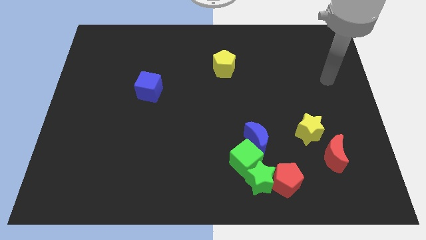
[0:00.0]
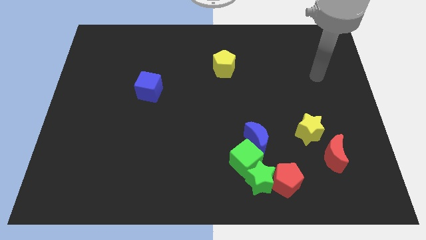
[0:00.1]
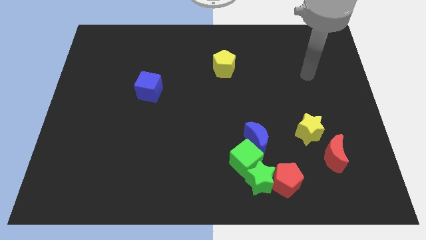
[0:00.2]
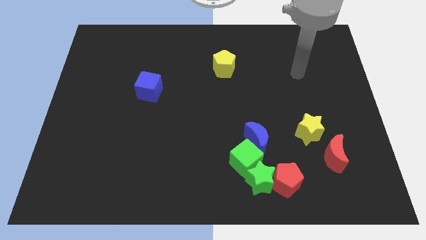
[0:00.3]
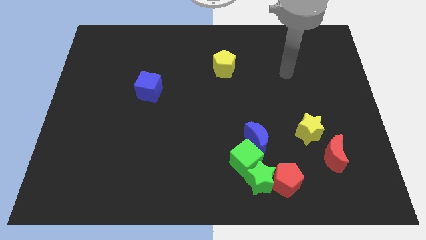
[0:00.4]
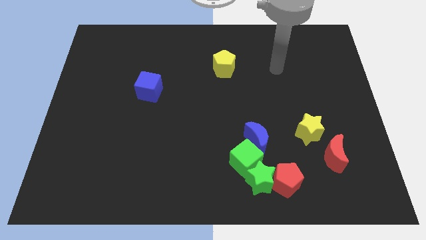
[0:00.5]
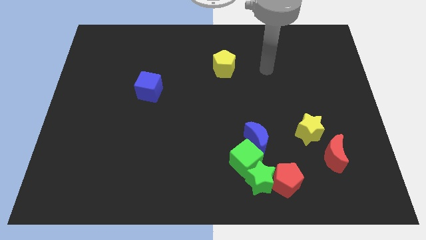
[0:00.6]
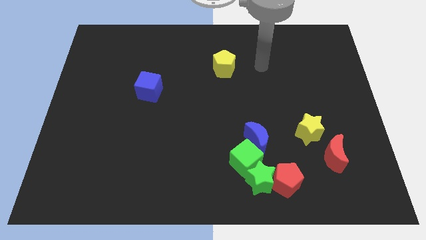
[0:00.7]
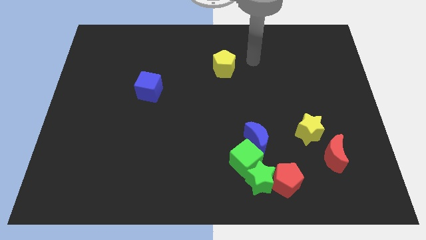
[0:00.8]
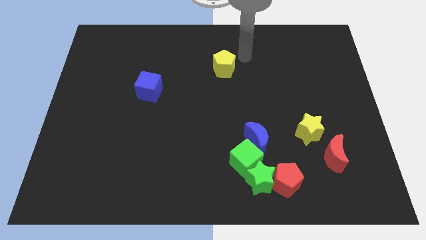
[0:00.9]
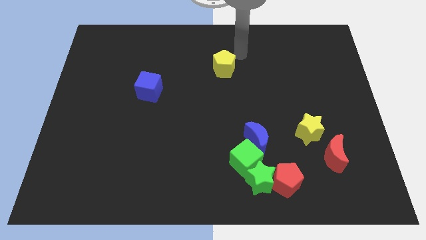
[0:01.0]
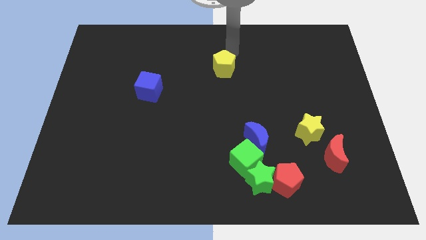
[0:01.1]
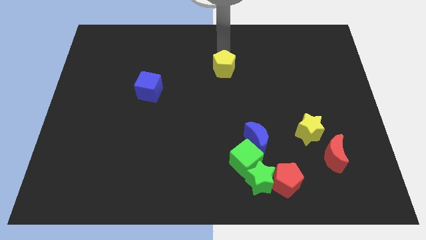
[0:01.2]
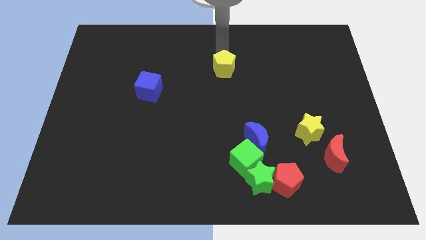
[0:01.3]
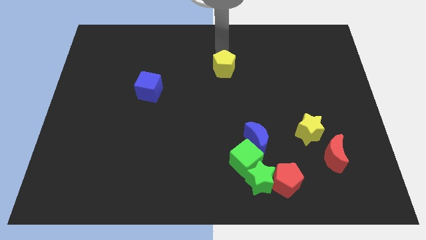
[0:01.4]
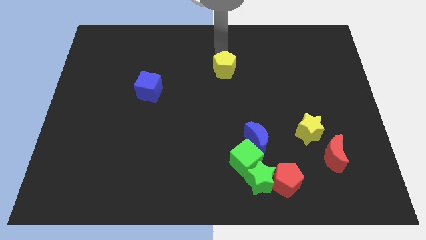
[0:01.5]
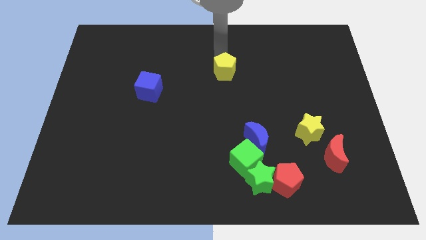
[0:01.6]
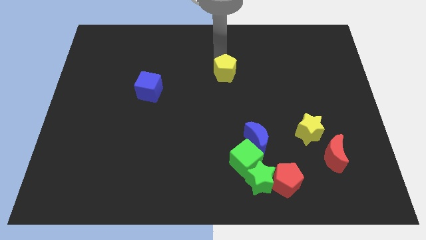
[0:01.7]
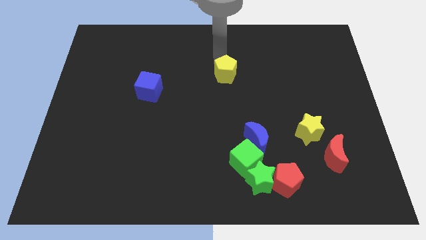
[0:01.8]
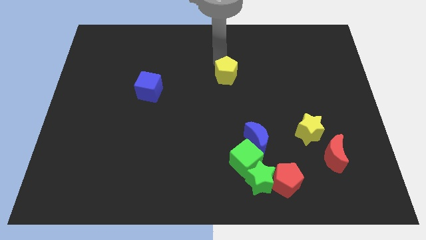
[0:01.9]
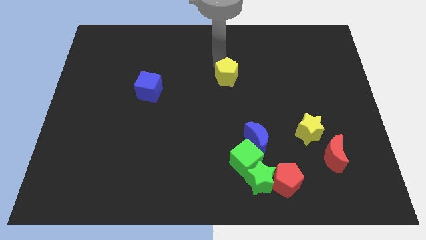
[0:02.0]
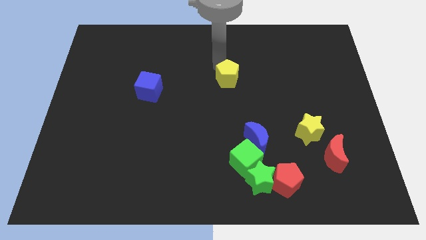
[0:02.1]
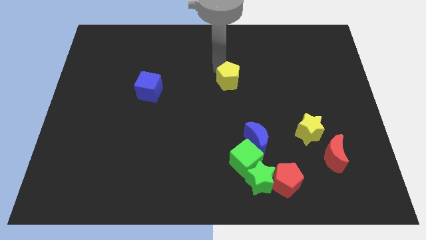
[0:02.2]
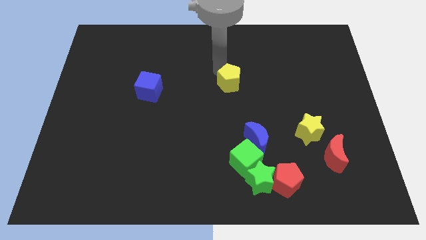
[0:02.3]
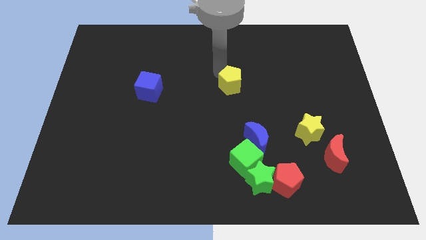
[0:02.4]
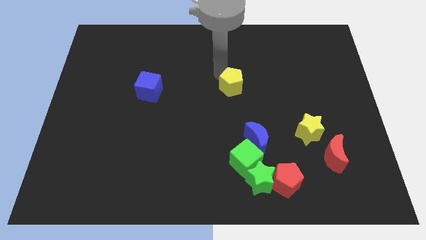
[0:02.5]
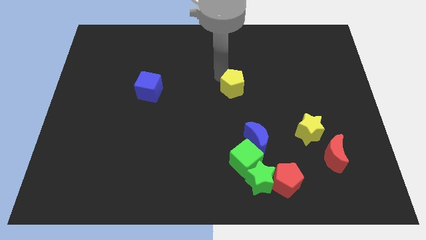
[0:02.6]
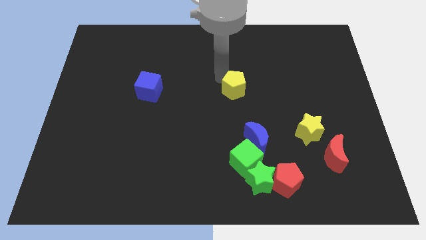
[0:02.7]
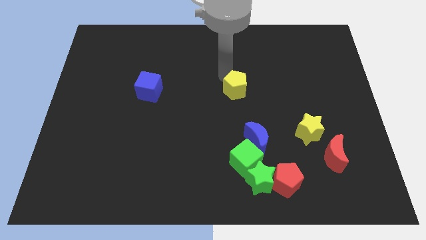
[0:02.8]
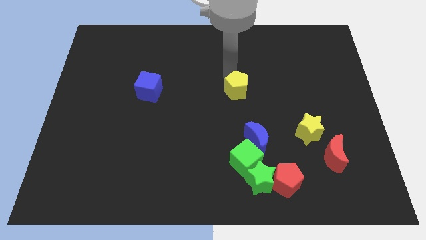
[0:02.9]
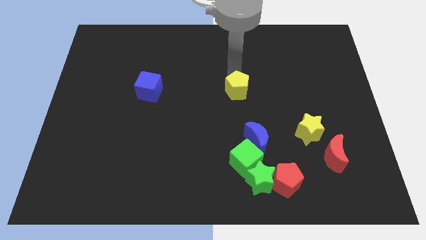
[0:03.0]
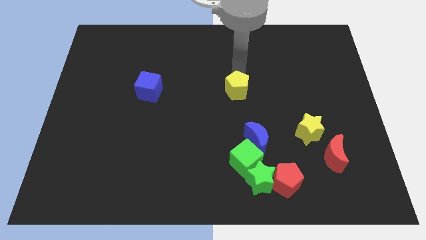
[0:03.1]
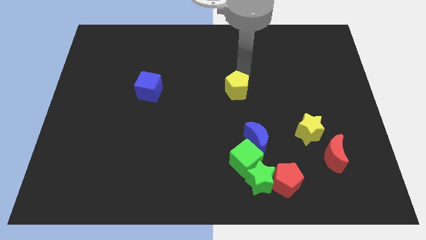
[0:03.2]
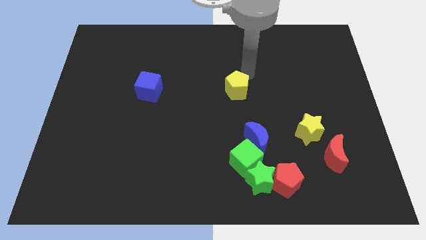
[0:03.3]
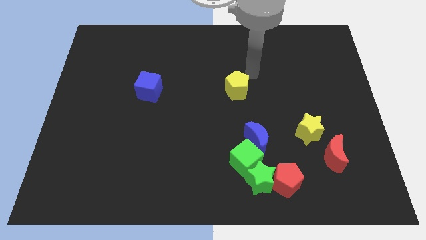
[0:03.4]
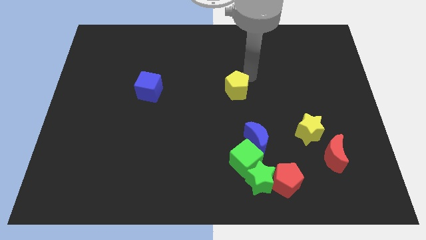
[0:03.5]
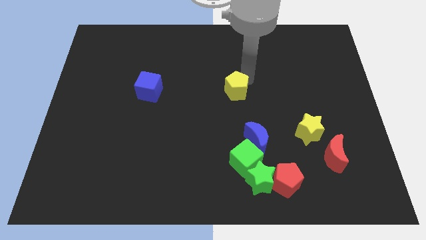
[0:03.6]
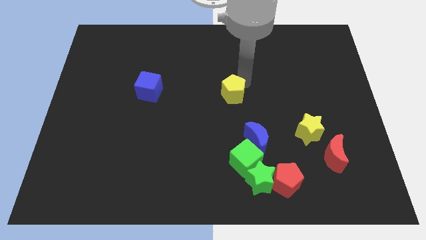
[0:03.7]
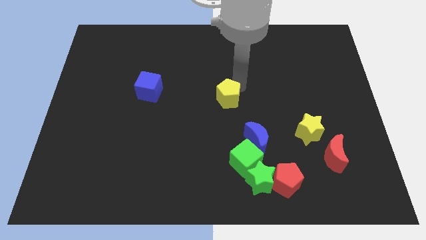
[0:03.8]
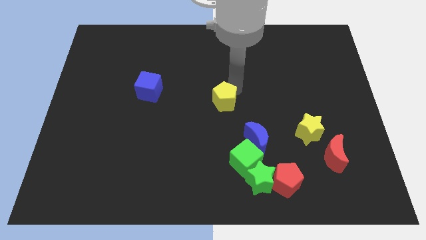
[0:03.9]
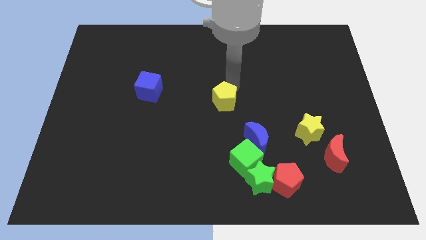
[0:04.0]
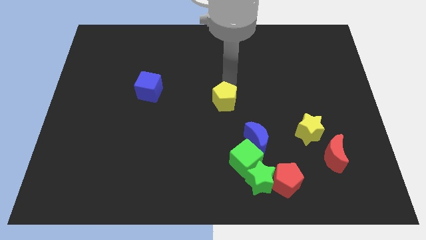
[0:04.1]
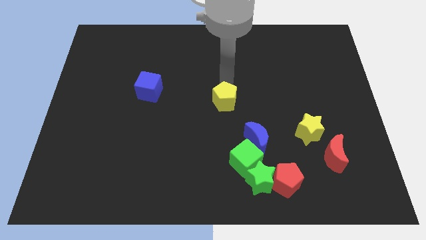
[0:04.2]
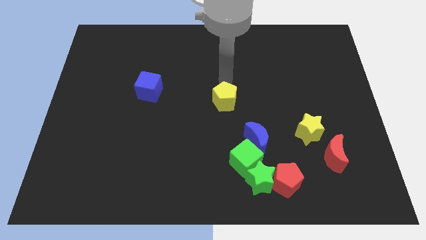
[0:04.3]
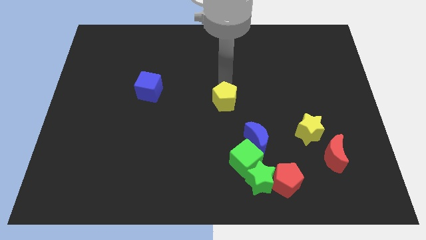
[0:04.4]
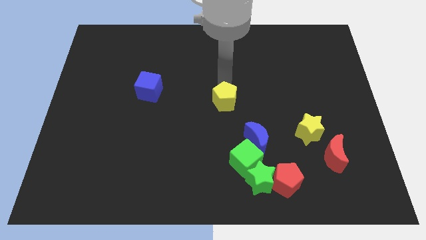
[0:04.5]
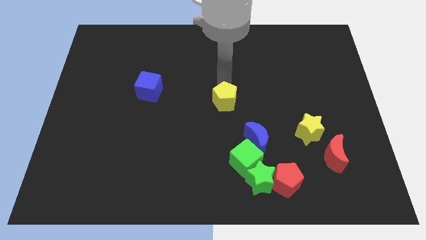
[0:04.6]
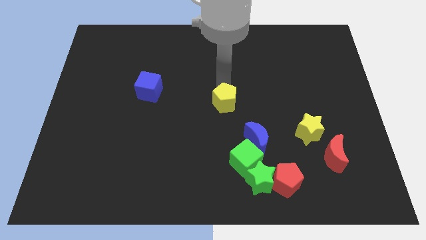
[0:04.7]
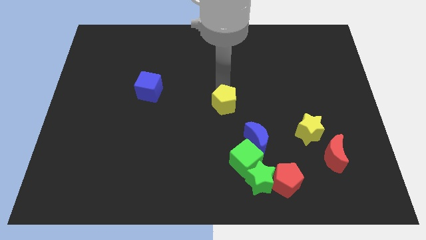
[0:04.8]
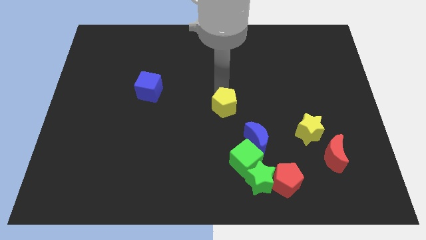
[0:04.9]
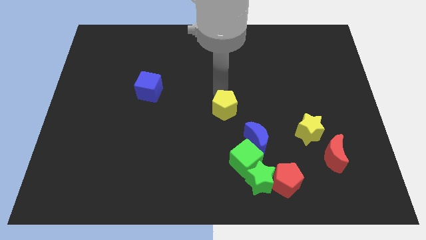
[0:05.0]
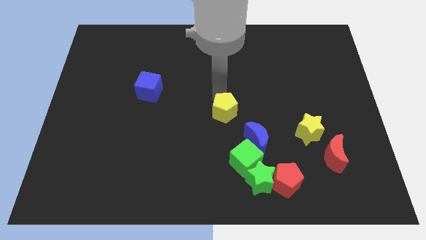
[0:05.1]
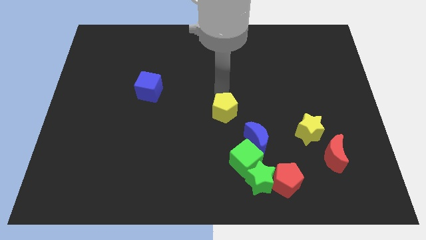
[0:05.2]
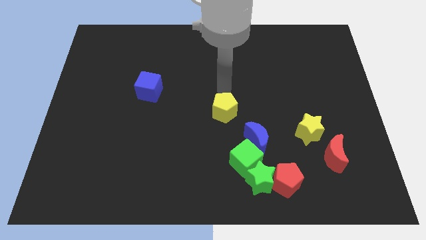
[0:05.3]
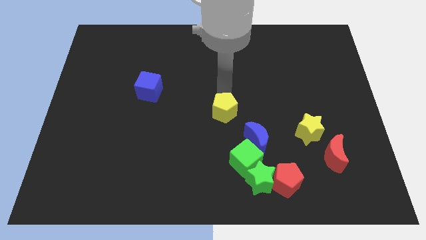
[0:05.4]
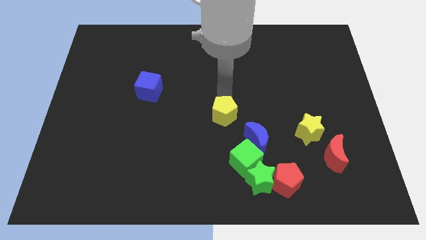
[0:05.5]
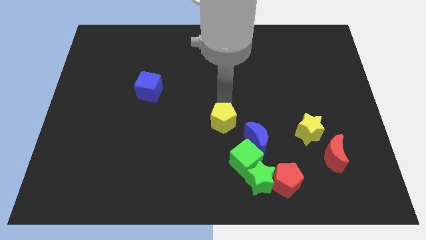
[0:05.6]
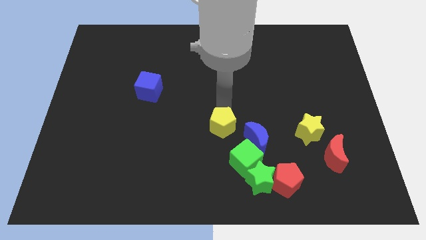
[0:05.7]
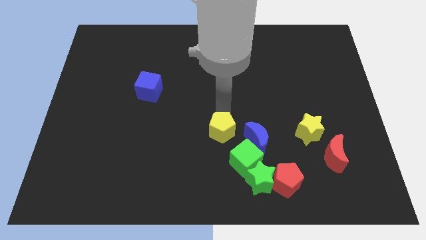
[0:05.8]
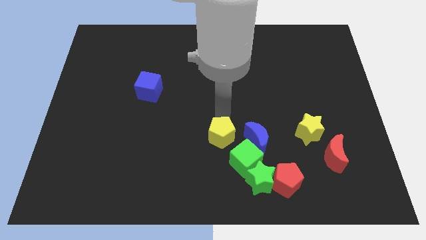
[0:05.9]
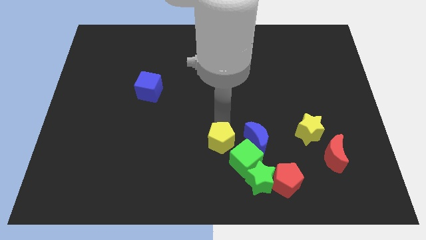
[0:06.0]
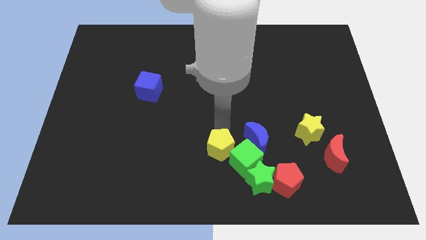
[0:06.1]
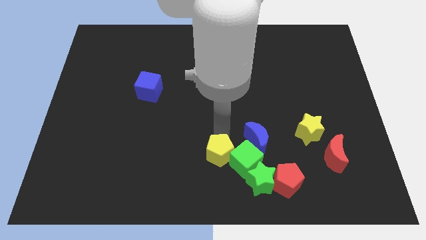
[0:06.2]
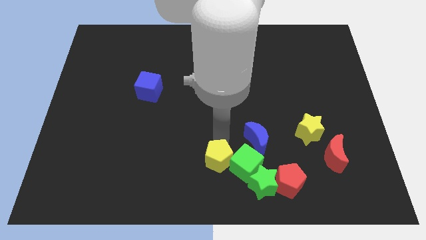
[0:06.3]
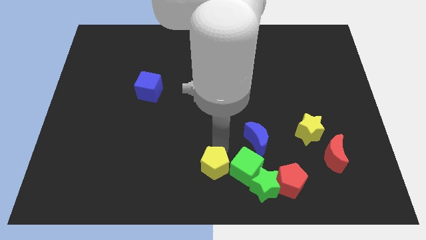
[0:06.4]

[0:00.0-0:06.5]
slide the yellow pentagon to the left of the green star

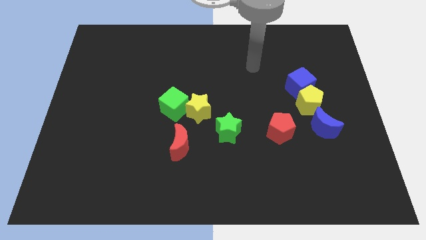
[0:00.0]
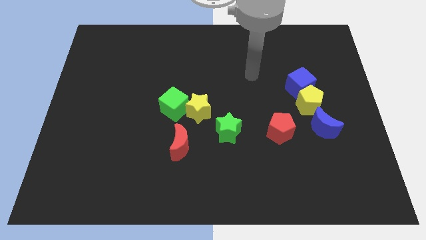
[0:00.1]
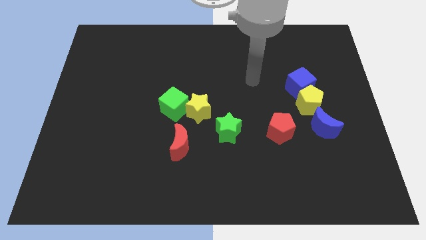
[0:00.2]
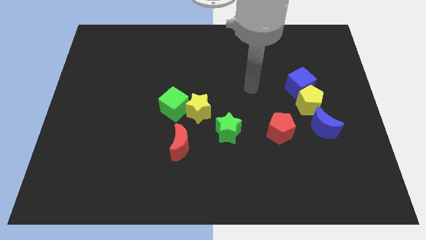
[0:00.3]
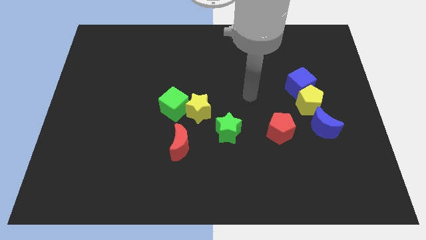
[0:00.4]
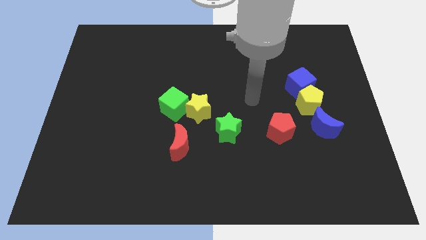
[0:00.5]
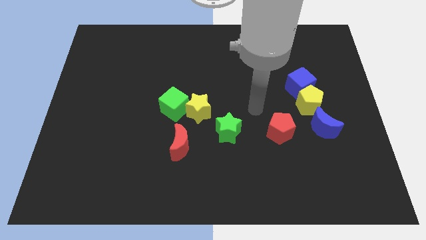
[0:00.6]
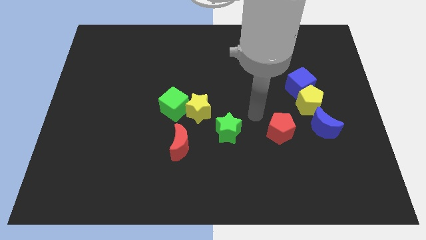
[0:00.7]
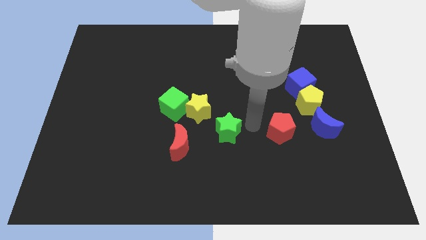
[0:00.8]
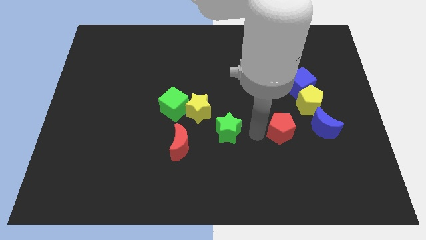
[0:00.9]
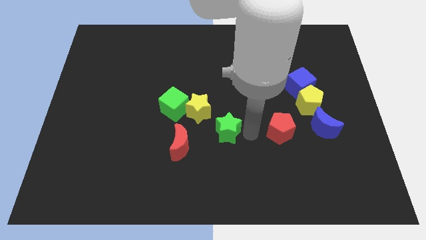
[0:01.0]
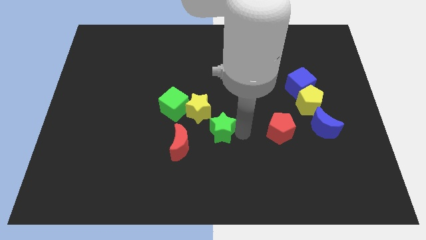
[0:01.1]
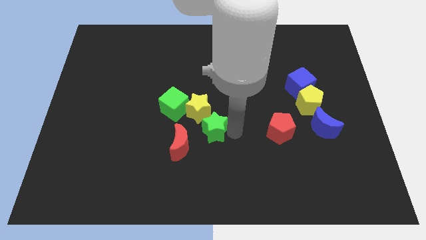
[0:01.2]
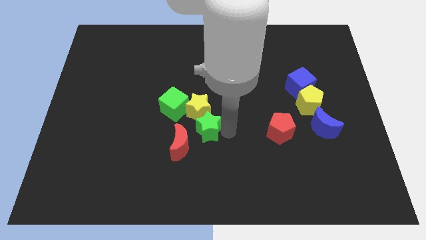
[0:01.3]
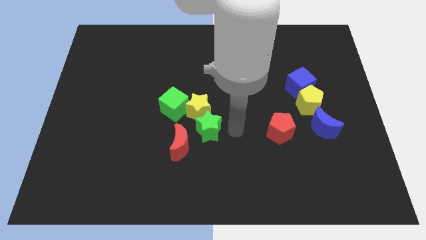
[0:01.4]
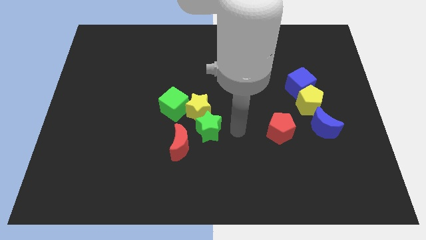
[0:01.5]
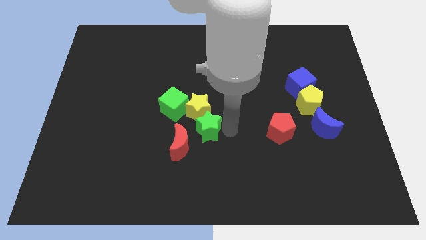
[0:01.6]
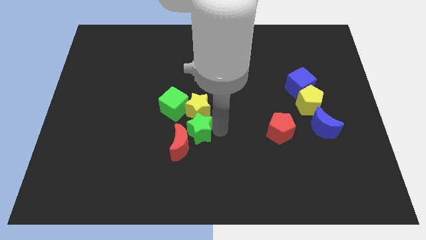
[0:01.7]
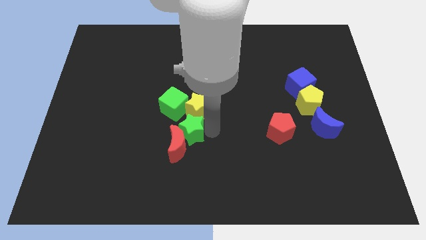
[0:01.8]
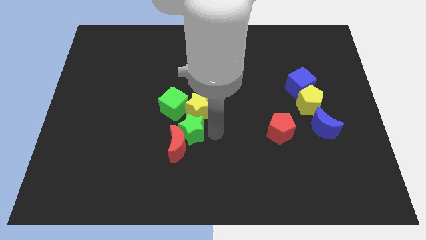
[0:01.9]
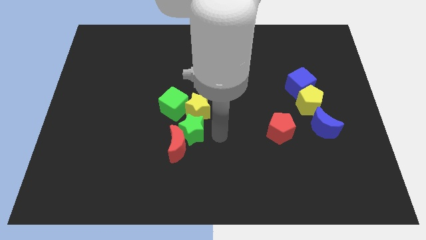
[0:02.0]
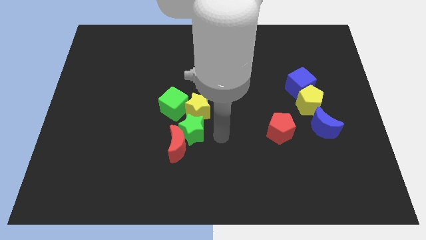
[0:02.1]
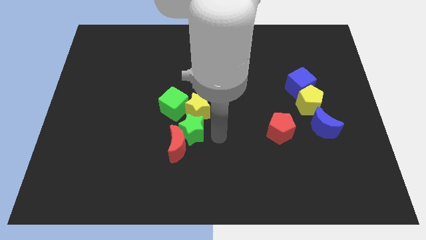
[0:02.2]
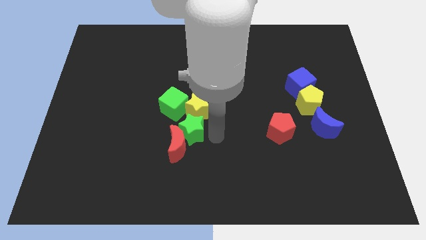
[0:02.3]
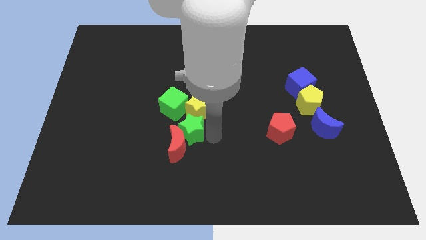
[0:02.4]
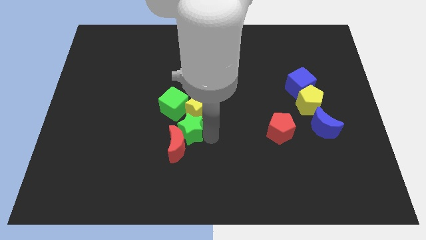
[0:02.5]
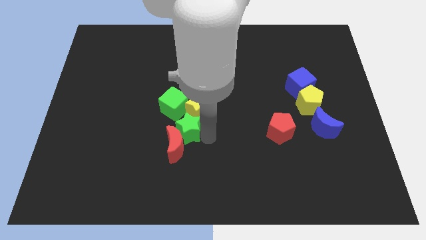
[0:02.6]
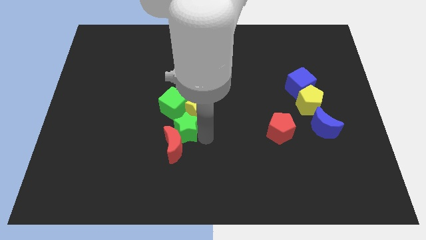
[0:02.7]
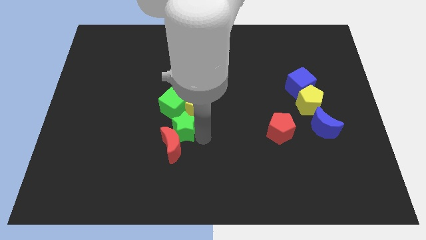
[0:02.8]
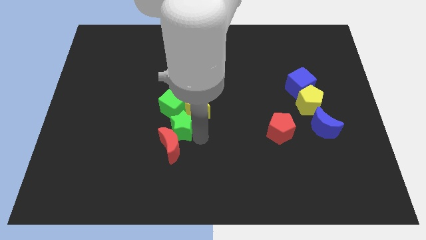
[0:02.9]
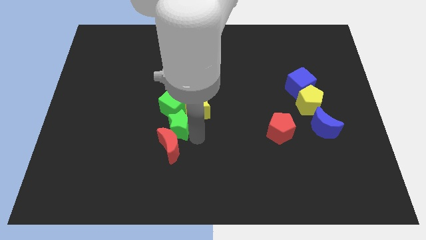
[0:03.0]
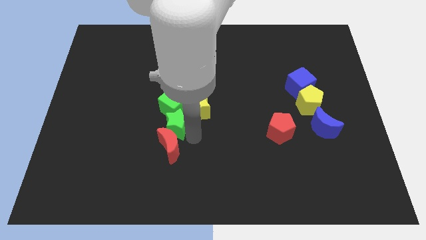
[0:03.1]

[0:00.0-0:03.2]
put the green star diagonally down and to the left of the green cube
